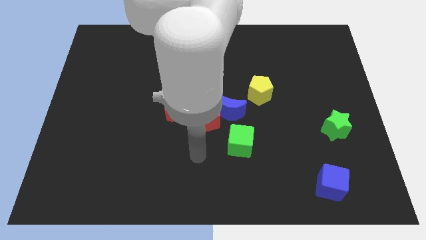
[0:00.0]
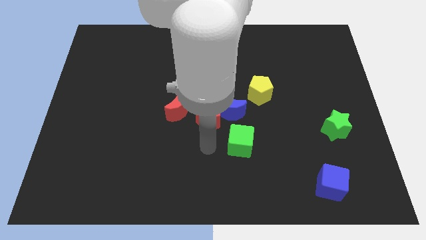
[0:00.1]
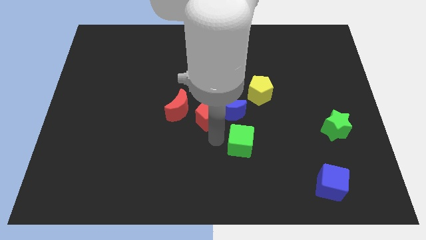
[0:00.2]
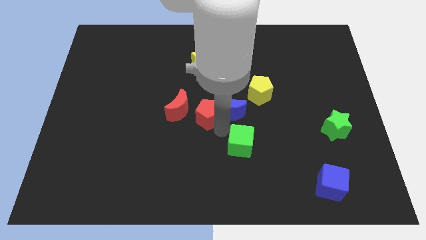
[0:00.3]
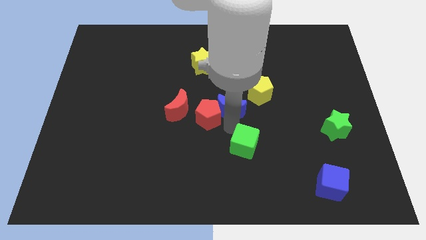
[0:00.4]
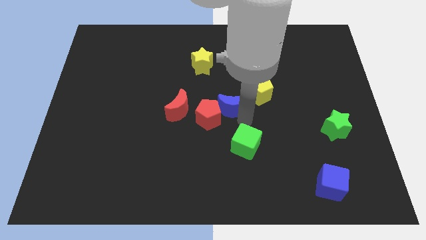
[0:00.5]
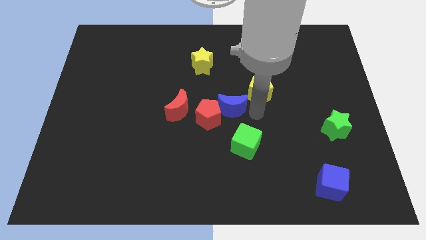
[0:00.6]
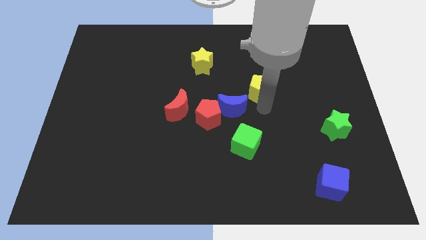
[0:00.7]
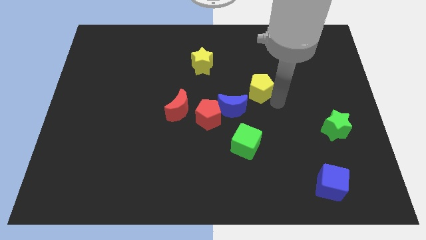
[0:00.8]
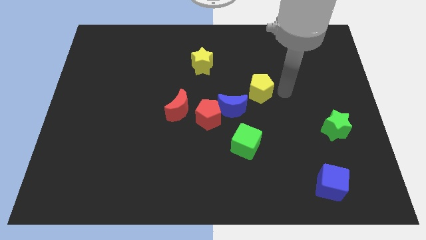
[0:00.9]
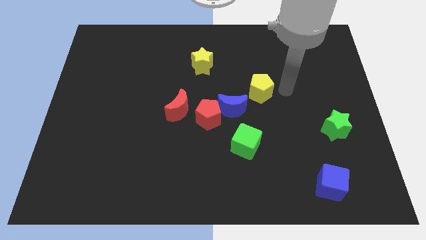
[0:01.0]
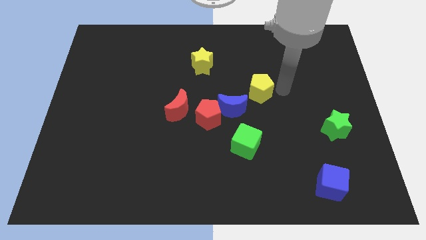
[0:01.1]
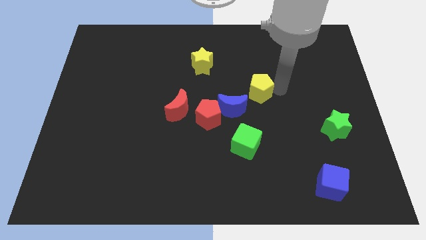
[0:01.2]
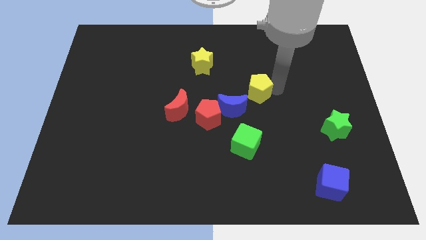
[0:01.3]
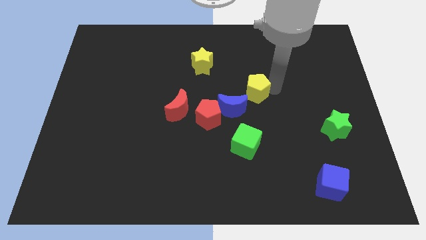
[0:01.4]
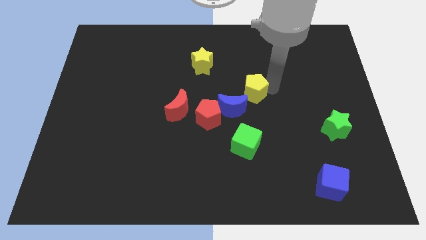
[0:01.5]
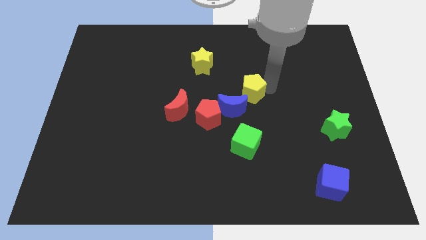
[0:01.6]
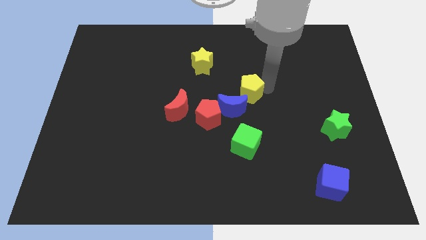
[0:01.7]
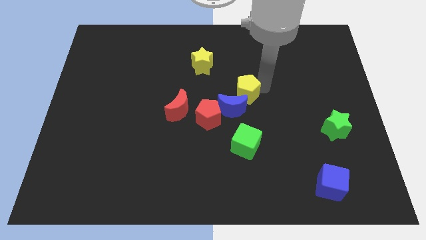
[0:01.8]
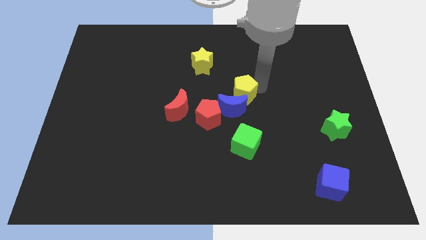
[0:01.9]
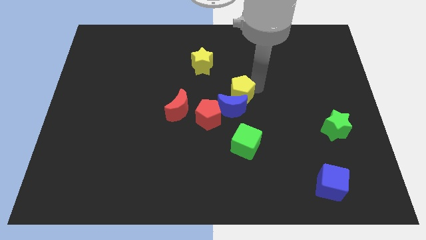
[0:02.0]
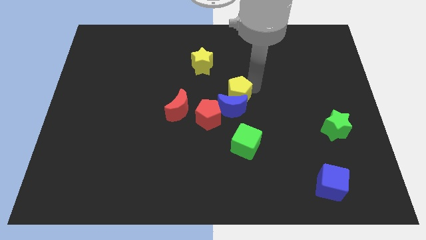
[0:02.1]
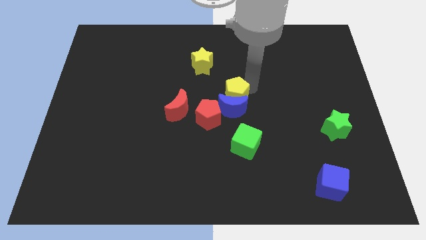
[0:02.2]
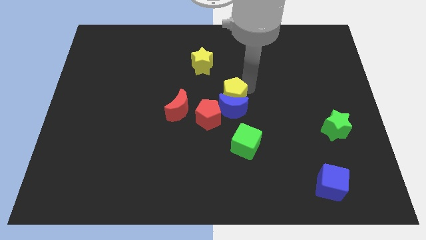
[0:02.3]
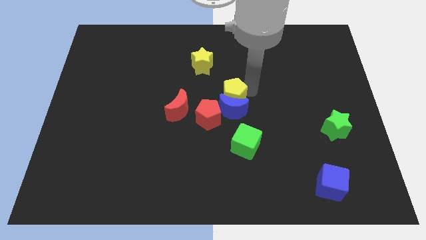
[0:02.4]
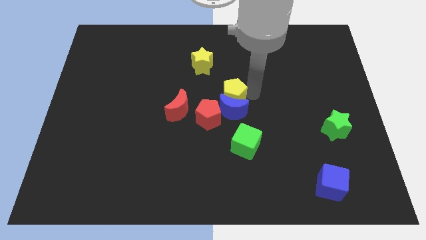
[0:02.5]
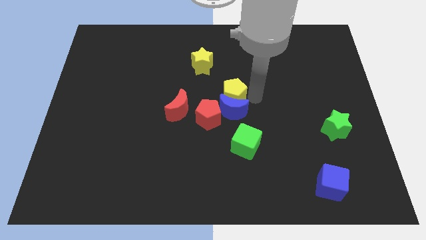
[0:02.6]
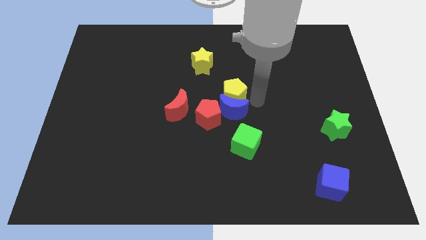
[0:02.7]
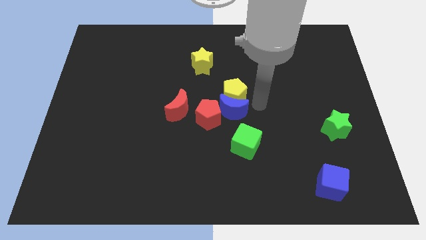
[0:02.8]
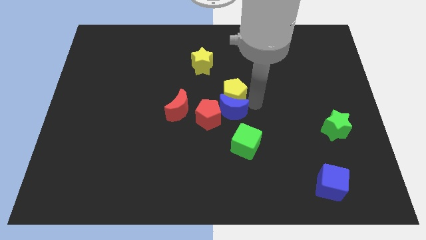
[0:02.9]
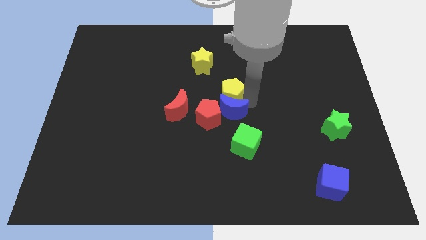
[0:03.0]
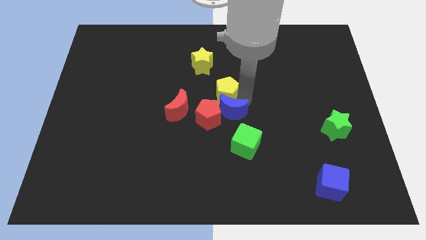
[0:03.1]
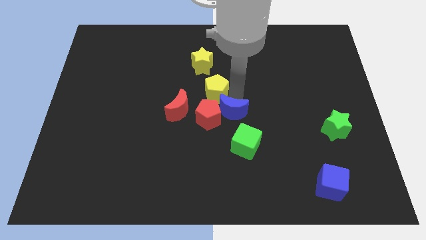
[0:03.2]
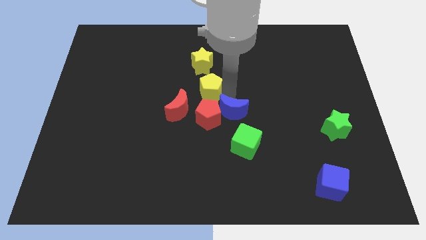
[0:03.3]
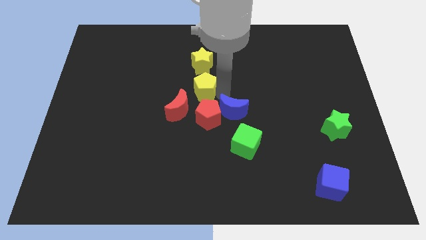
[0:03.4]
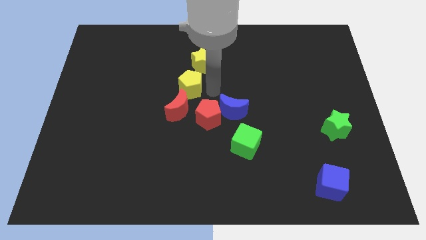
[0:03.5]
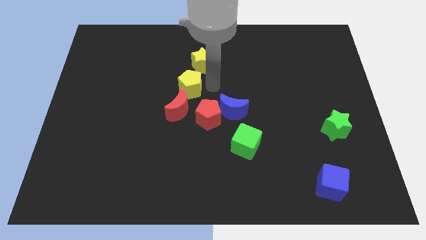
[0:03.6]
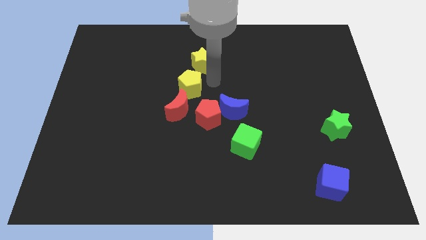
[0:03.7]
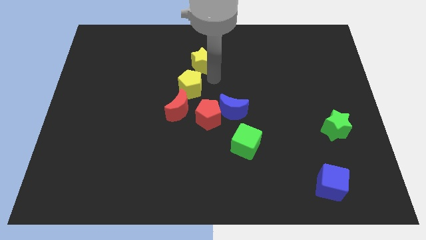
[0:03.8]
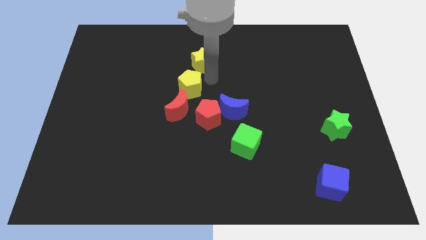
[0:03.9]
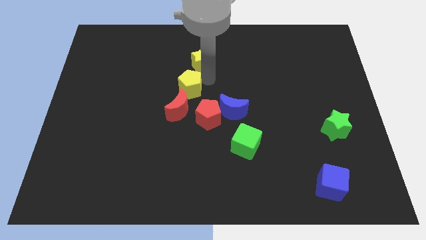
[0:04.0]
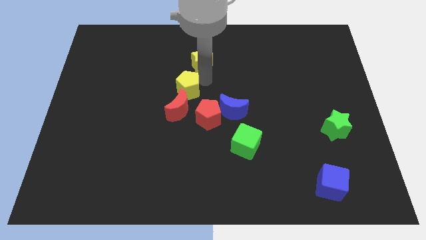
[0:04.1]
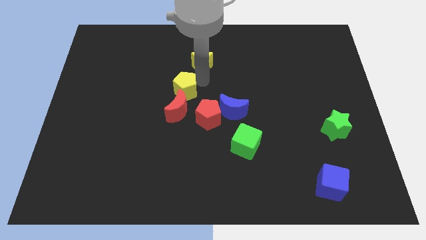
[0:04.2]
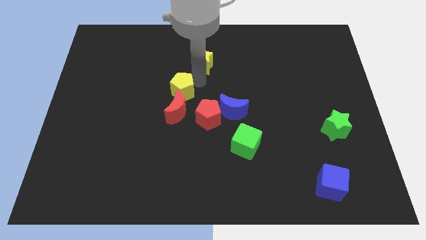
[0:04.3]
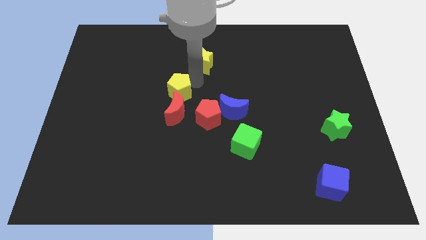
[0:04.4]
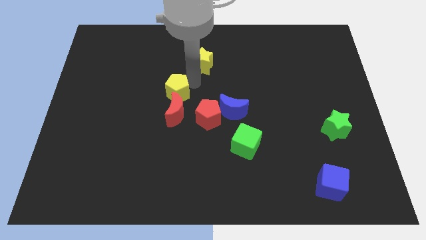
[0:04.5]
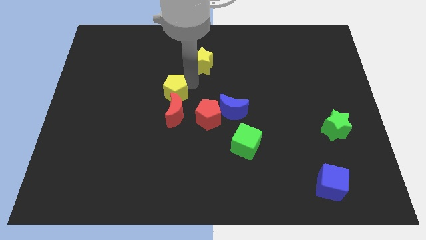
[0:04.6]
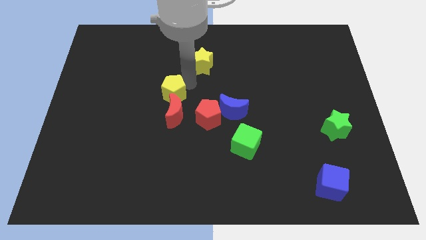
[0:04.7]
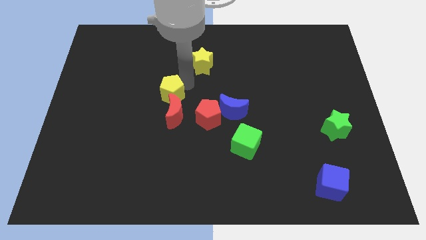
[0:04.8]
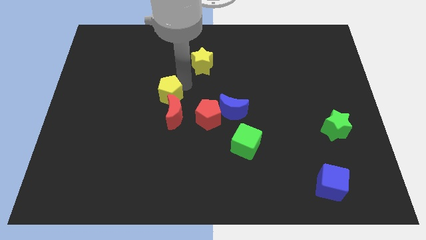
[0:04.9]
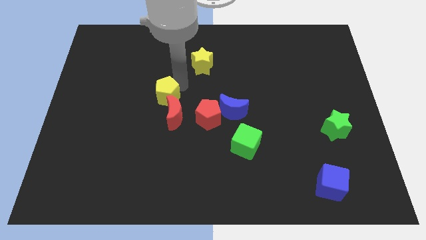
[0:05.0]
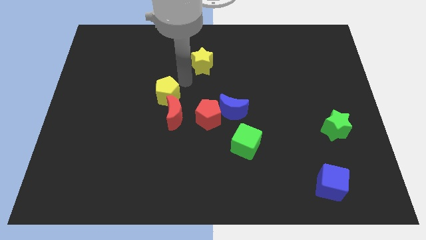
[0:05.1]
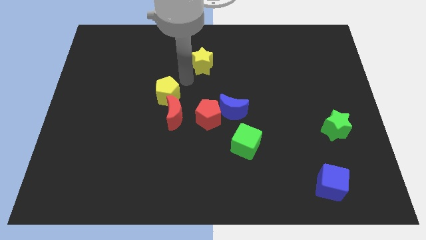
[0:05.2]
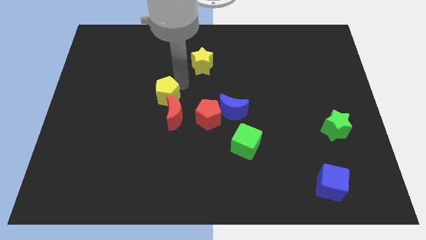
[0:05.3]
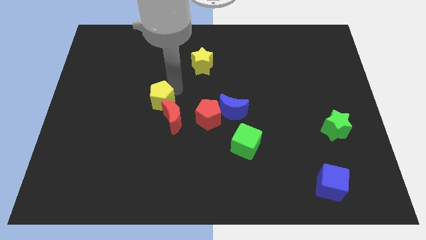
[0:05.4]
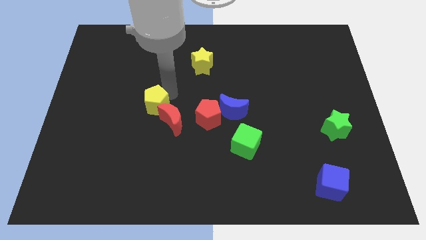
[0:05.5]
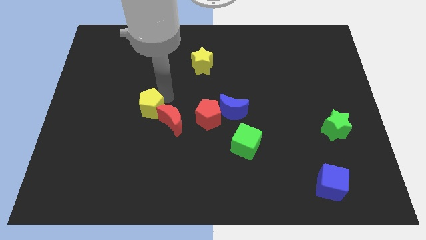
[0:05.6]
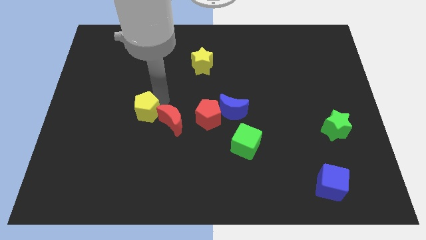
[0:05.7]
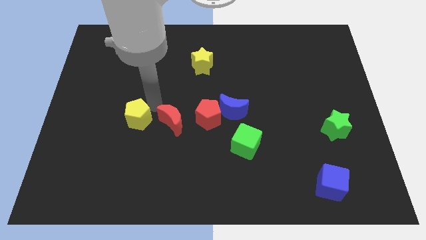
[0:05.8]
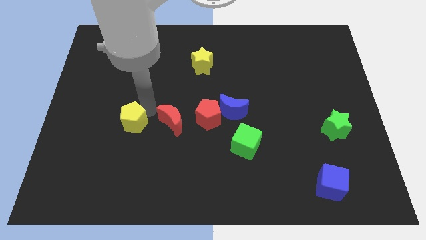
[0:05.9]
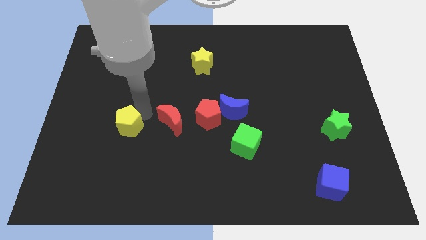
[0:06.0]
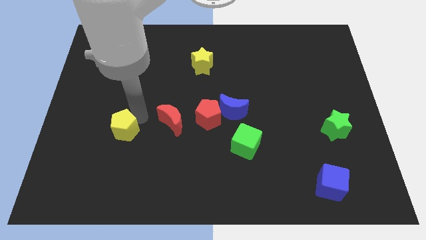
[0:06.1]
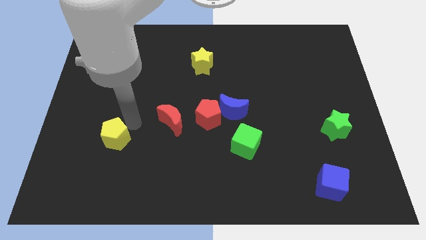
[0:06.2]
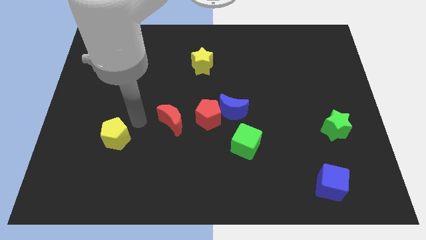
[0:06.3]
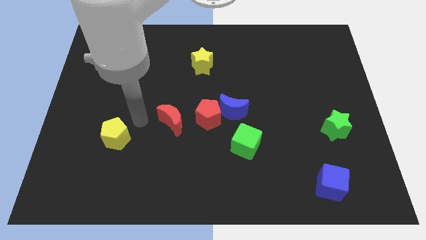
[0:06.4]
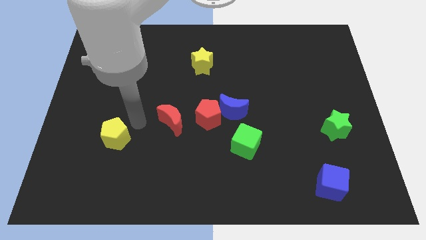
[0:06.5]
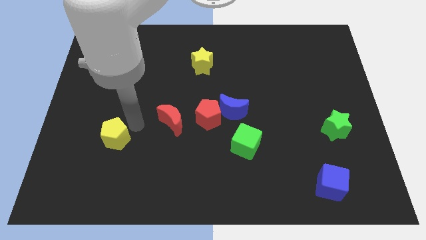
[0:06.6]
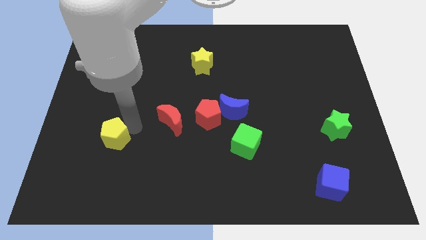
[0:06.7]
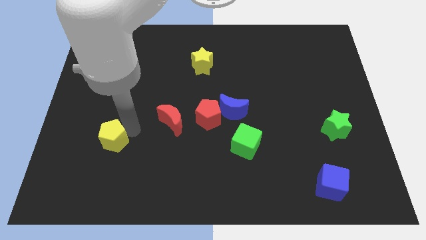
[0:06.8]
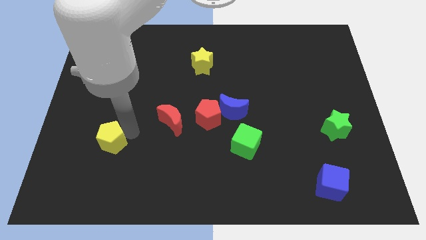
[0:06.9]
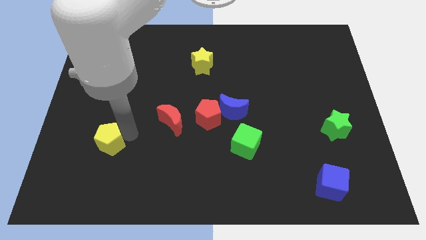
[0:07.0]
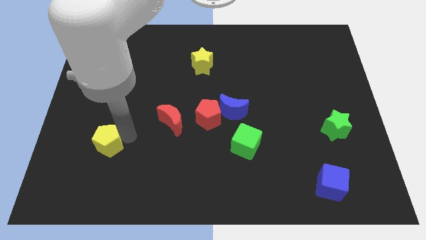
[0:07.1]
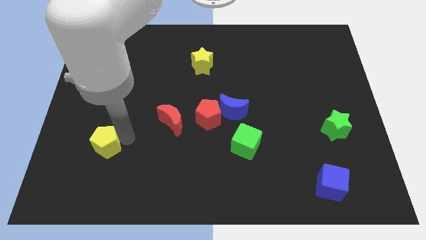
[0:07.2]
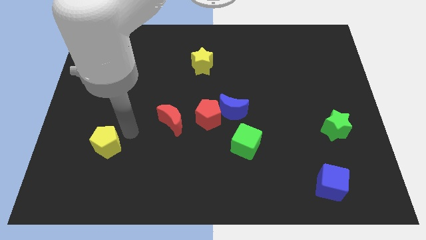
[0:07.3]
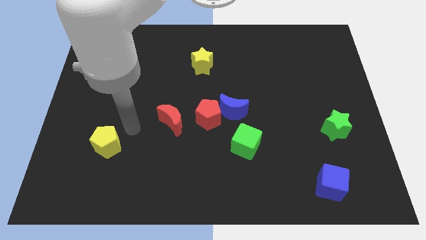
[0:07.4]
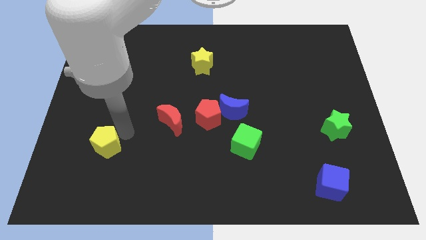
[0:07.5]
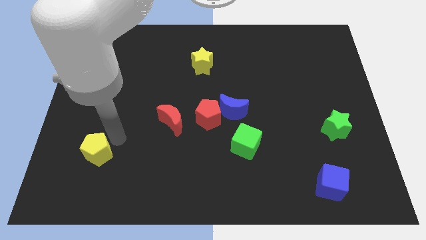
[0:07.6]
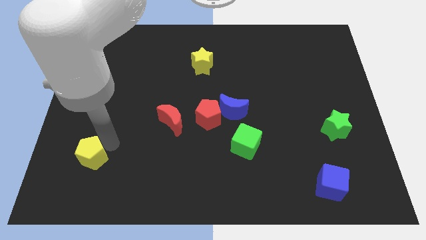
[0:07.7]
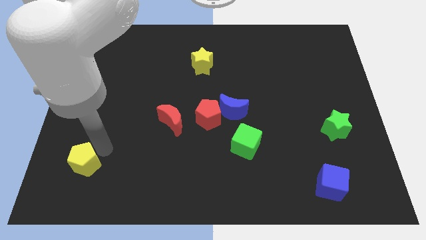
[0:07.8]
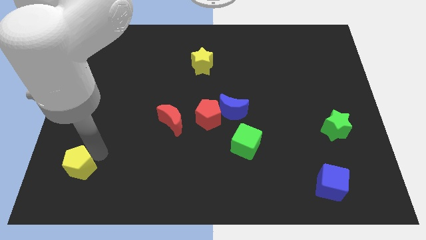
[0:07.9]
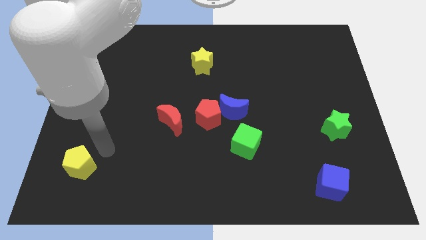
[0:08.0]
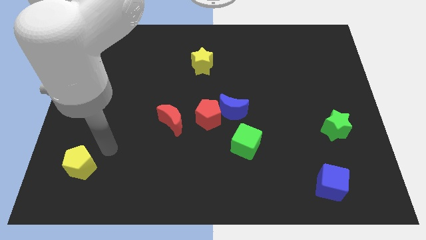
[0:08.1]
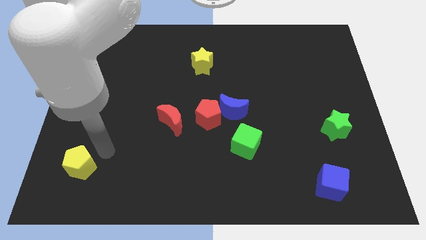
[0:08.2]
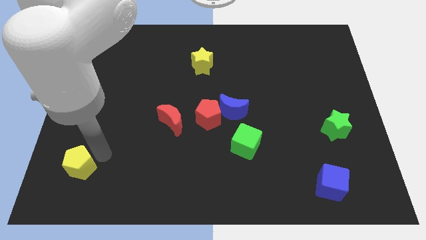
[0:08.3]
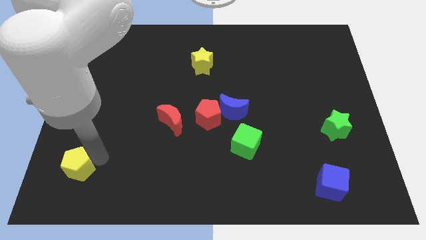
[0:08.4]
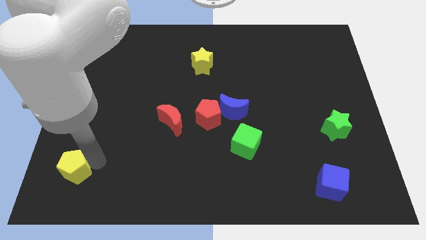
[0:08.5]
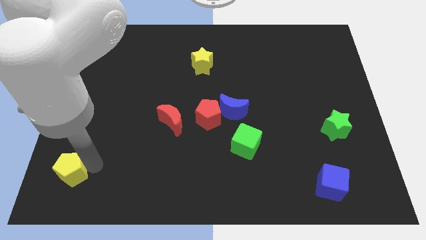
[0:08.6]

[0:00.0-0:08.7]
slide the yellow pentagon to the lower left corner
